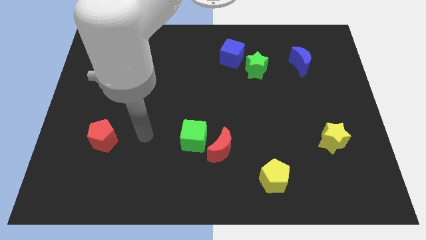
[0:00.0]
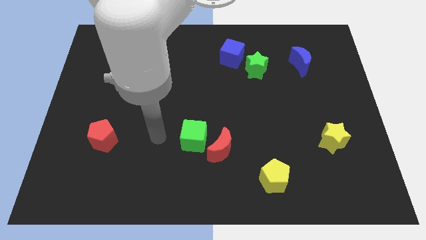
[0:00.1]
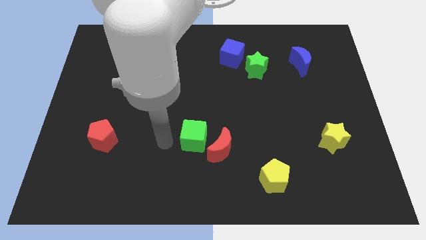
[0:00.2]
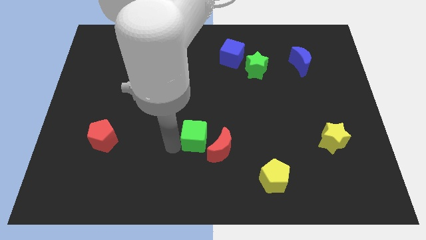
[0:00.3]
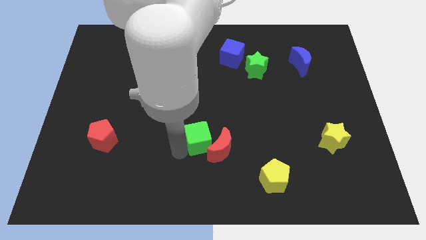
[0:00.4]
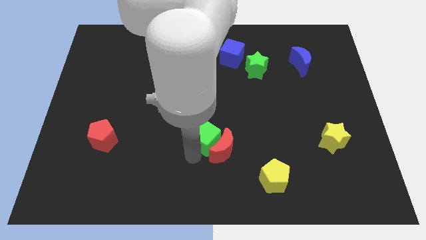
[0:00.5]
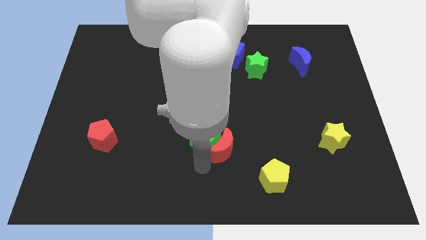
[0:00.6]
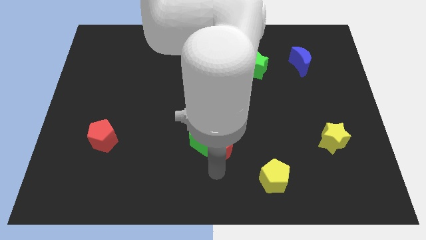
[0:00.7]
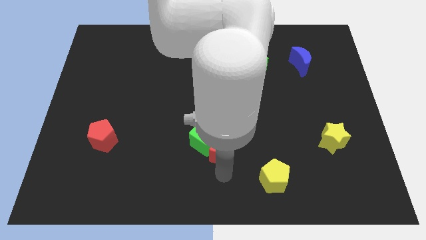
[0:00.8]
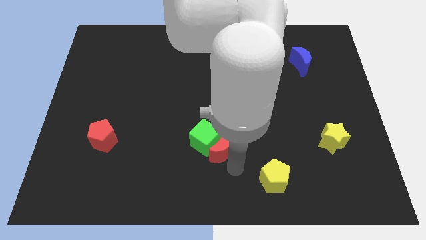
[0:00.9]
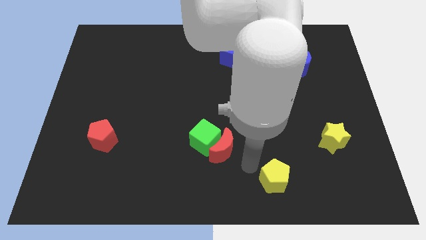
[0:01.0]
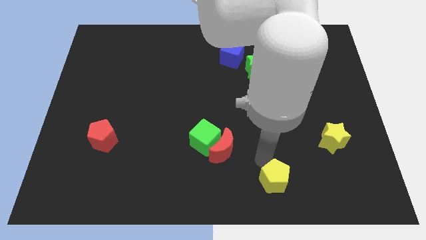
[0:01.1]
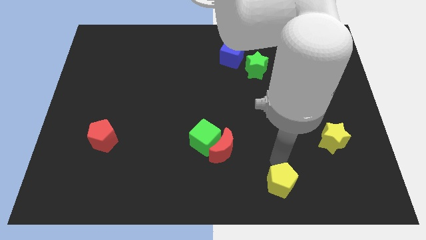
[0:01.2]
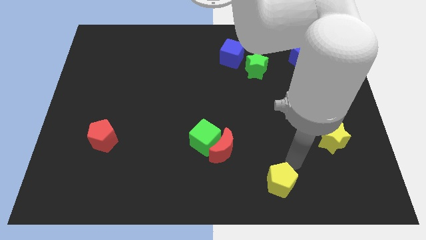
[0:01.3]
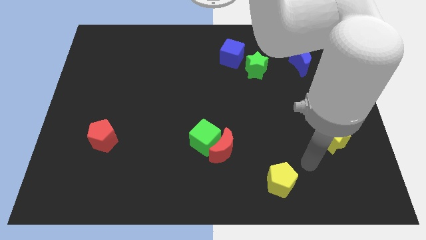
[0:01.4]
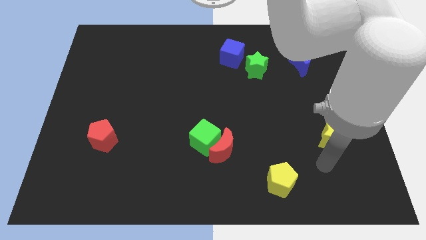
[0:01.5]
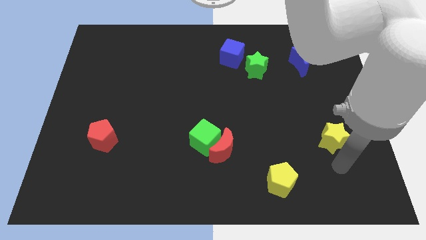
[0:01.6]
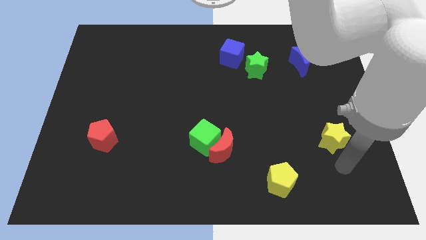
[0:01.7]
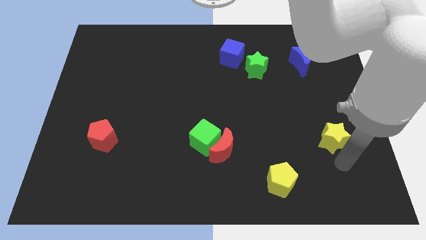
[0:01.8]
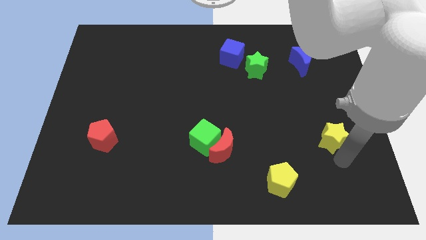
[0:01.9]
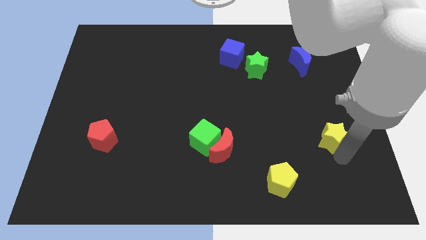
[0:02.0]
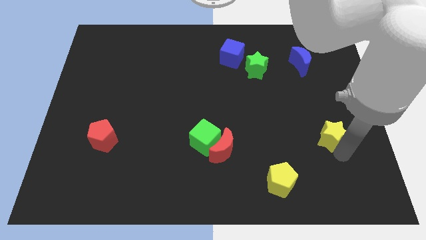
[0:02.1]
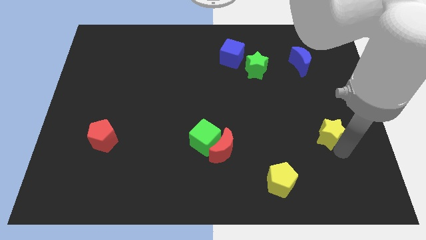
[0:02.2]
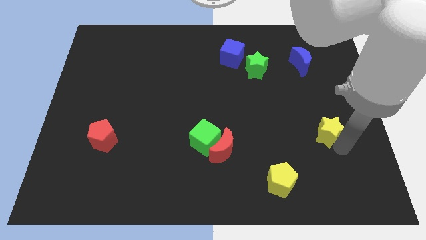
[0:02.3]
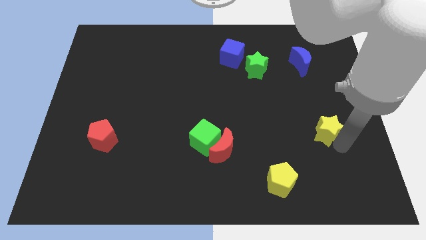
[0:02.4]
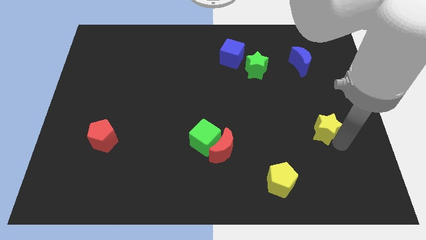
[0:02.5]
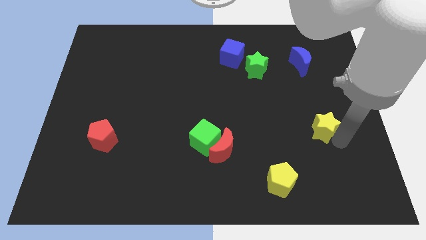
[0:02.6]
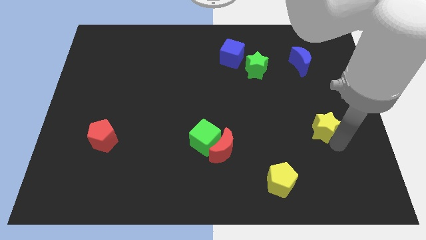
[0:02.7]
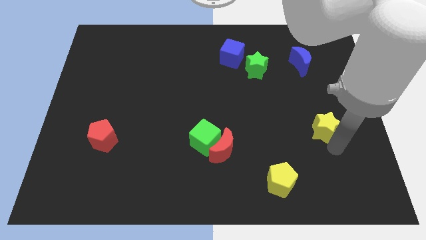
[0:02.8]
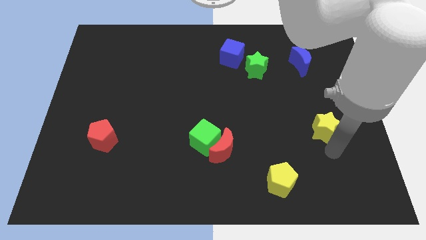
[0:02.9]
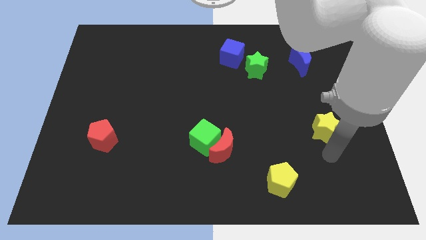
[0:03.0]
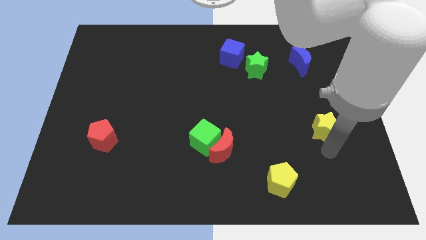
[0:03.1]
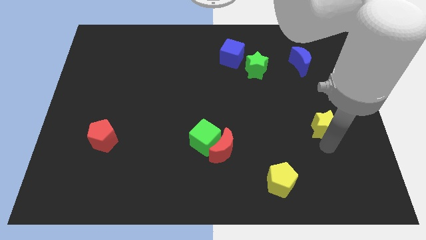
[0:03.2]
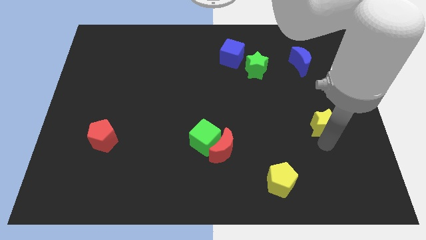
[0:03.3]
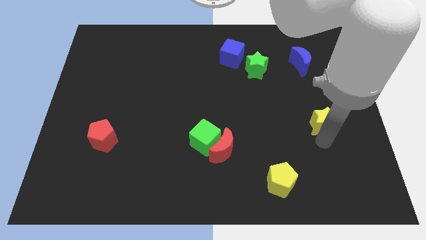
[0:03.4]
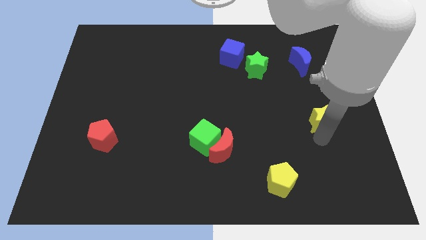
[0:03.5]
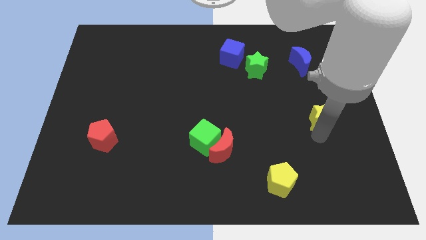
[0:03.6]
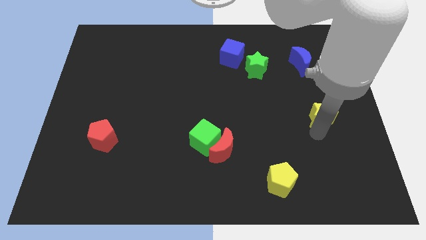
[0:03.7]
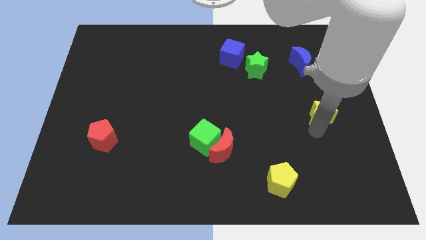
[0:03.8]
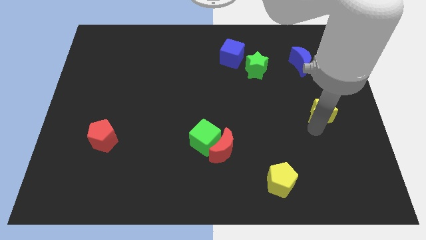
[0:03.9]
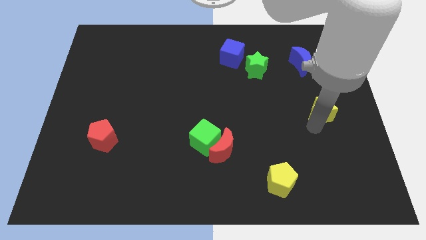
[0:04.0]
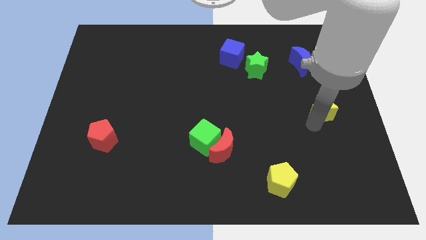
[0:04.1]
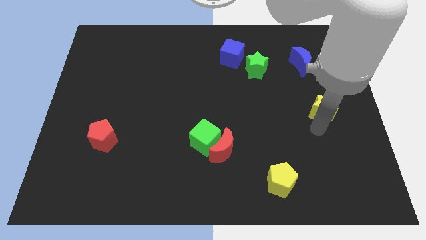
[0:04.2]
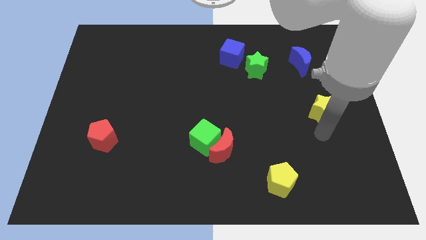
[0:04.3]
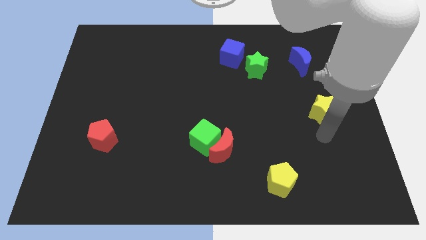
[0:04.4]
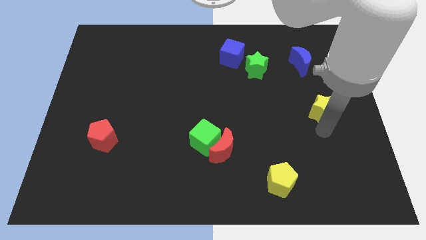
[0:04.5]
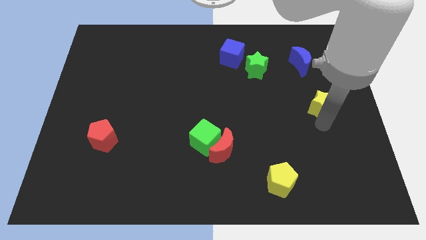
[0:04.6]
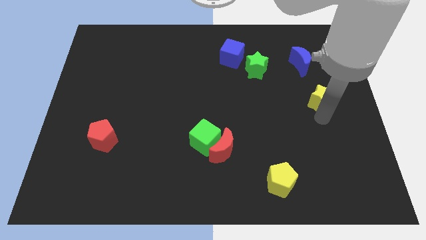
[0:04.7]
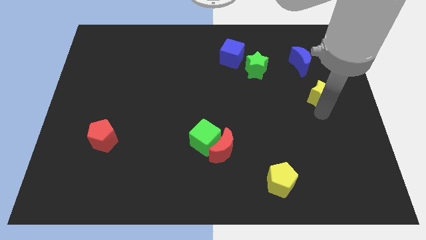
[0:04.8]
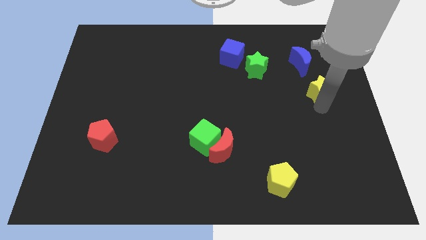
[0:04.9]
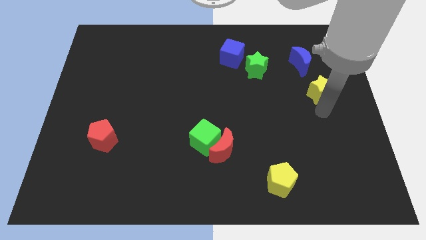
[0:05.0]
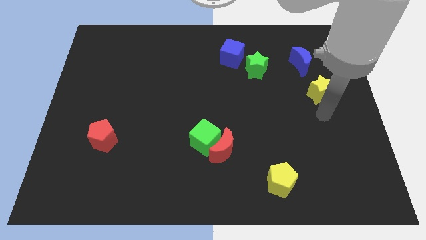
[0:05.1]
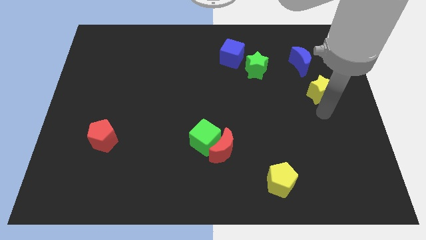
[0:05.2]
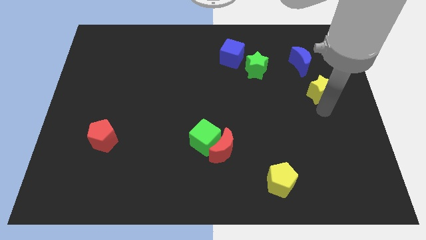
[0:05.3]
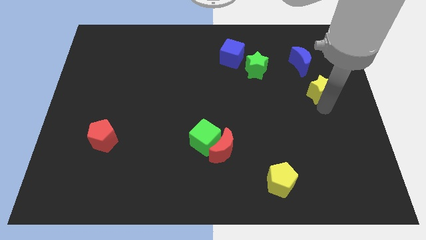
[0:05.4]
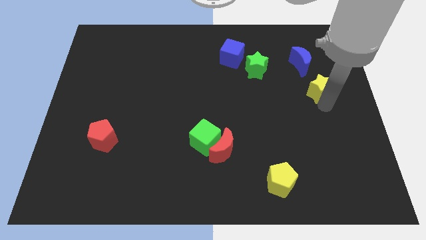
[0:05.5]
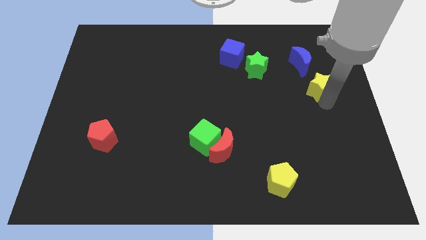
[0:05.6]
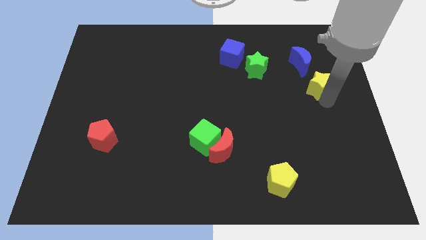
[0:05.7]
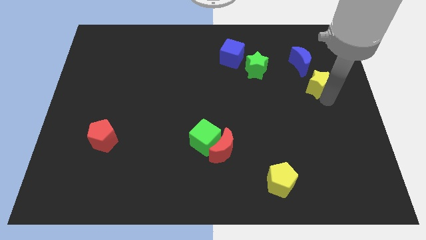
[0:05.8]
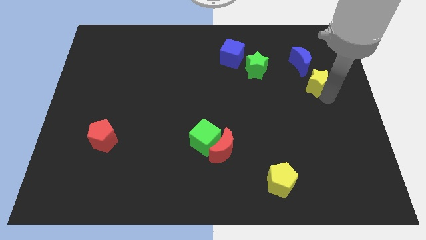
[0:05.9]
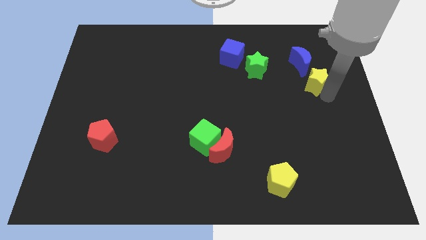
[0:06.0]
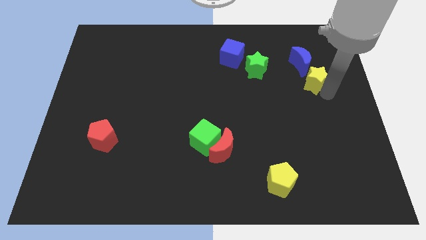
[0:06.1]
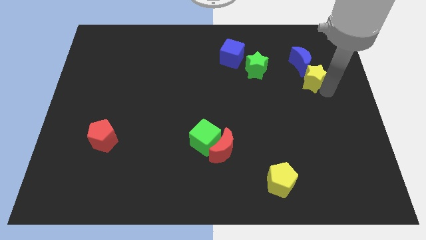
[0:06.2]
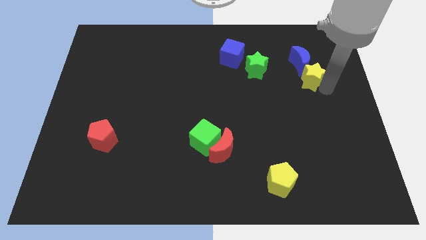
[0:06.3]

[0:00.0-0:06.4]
push the yellow star to the right side of the green star

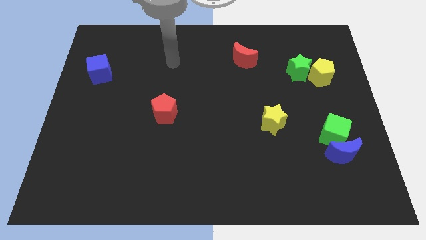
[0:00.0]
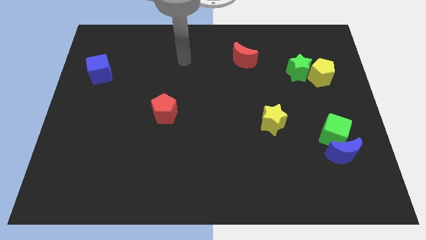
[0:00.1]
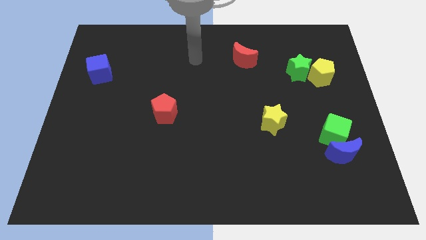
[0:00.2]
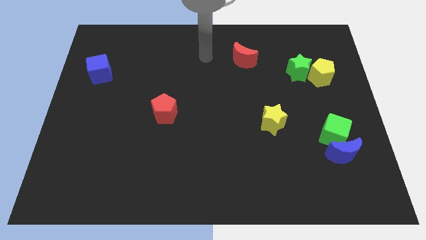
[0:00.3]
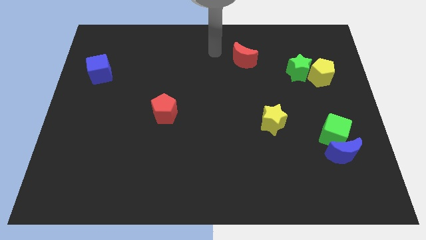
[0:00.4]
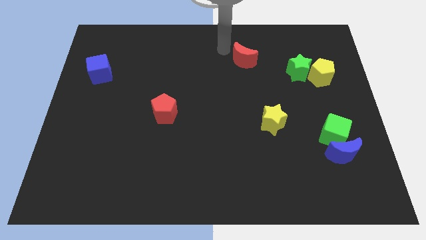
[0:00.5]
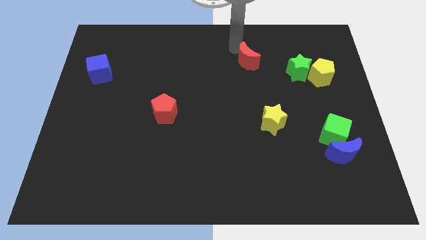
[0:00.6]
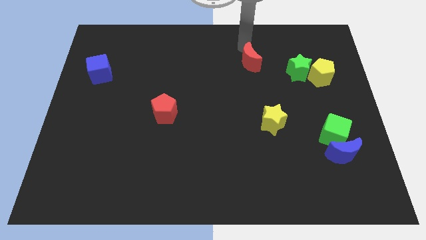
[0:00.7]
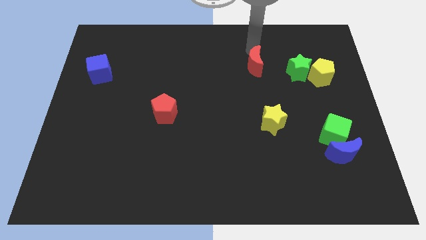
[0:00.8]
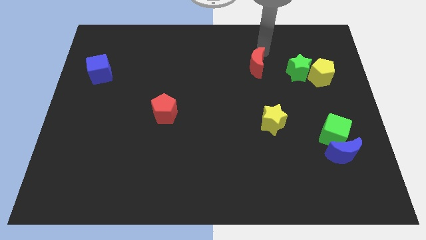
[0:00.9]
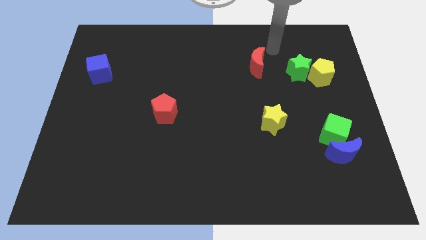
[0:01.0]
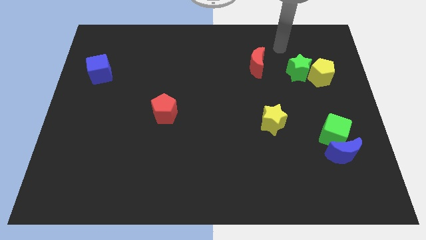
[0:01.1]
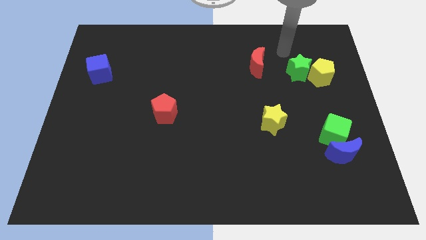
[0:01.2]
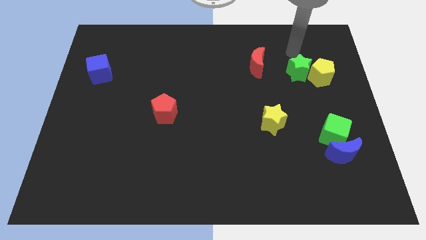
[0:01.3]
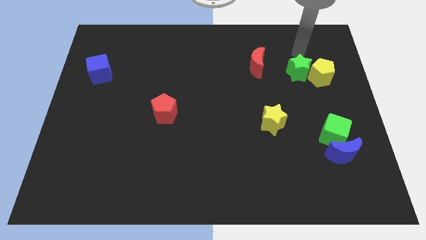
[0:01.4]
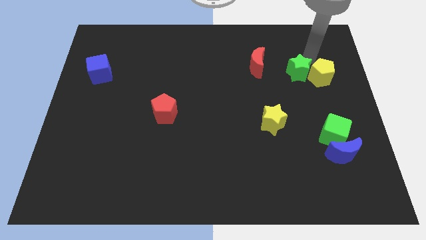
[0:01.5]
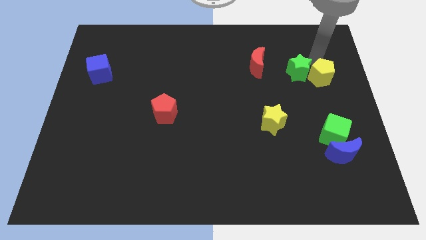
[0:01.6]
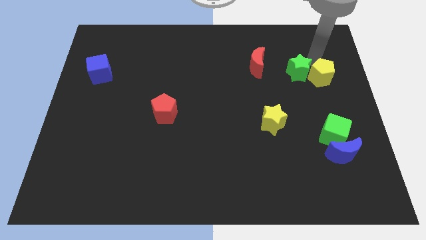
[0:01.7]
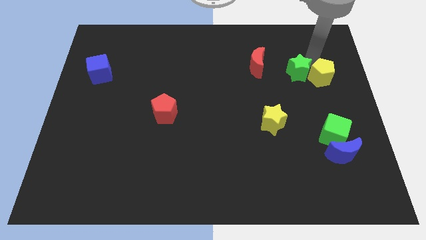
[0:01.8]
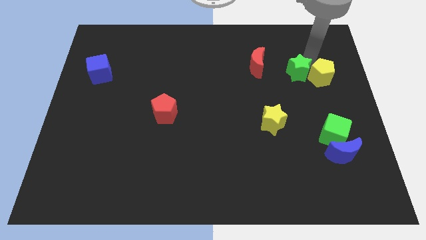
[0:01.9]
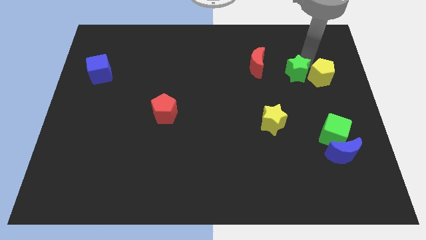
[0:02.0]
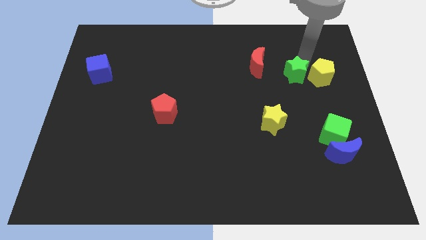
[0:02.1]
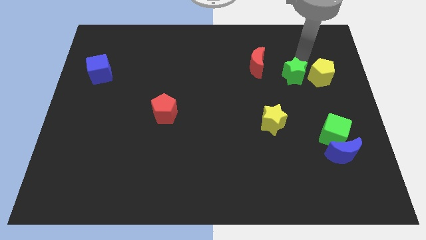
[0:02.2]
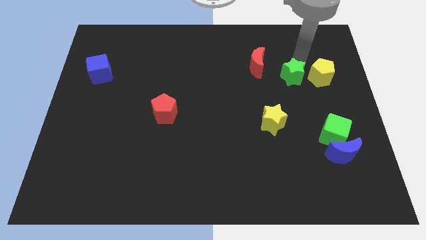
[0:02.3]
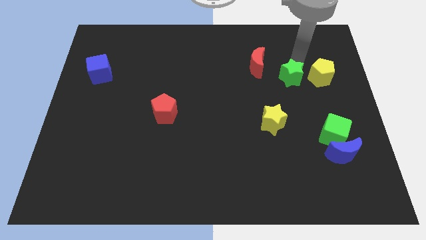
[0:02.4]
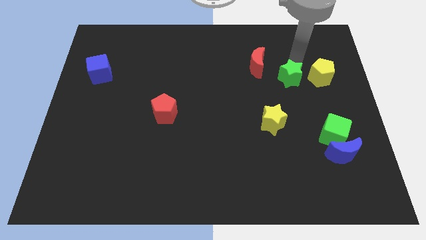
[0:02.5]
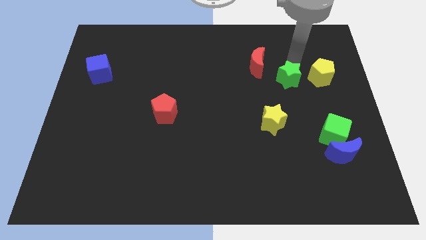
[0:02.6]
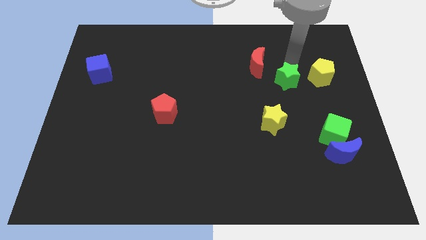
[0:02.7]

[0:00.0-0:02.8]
slide the green star to the top of the yellow star
